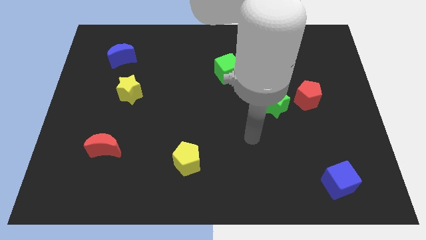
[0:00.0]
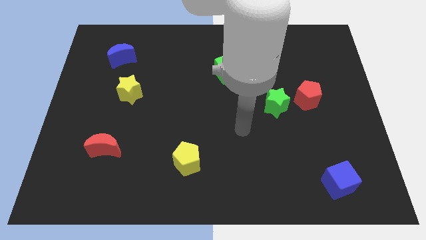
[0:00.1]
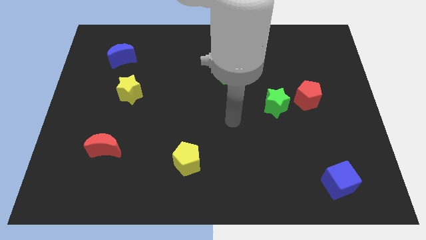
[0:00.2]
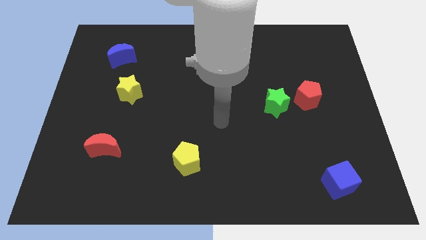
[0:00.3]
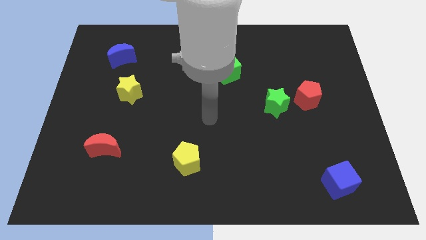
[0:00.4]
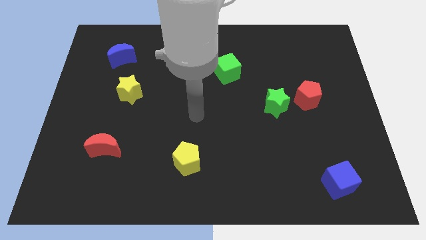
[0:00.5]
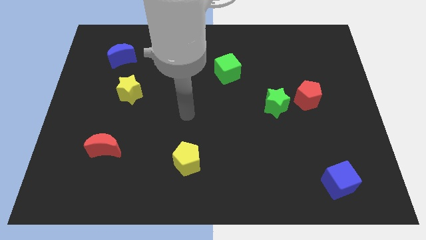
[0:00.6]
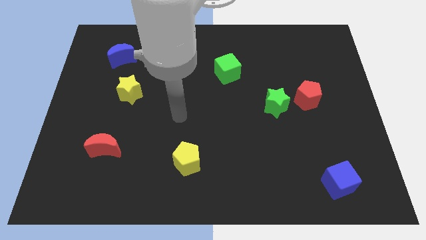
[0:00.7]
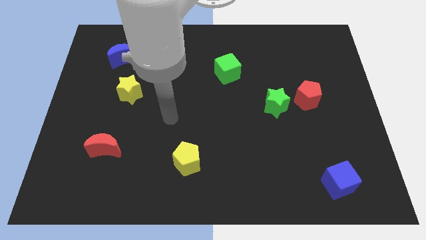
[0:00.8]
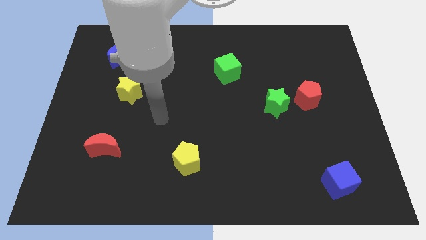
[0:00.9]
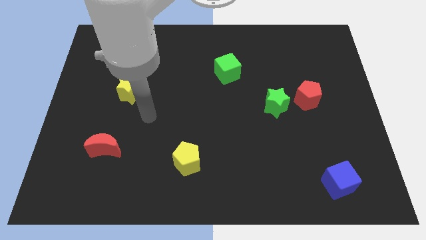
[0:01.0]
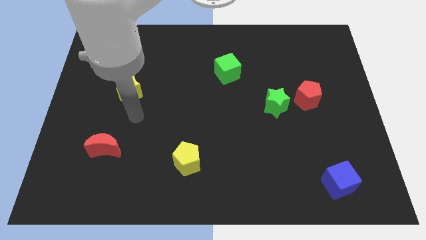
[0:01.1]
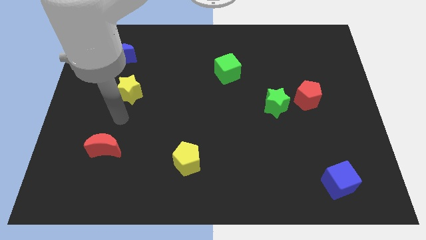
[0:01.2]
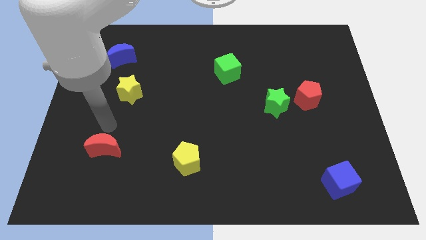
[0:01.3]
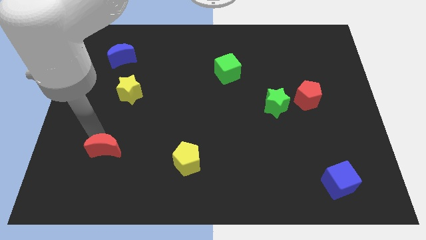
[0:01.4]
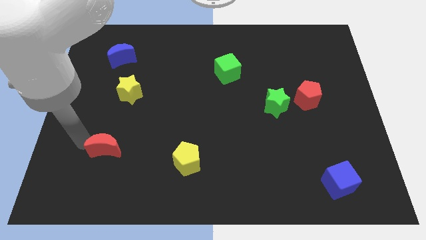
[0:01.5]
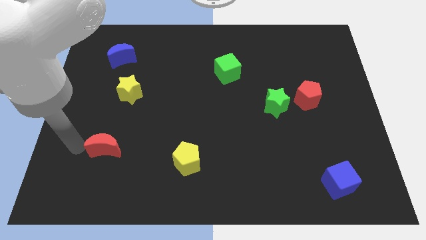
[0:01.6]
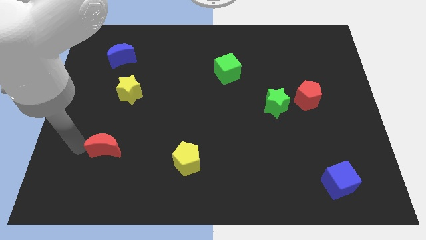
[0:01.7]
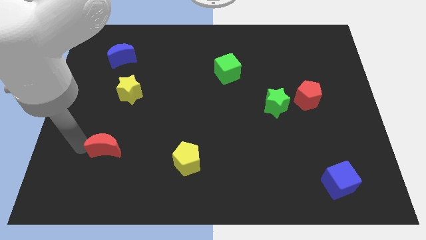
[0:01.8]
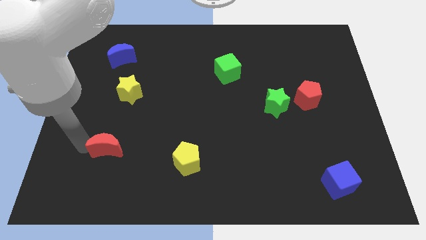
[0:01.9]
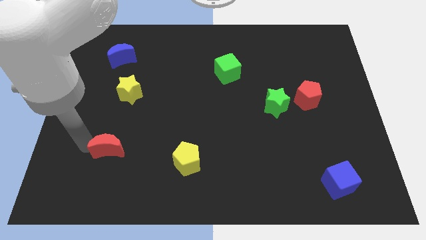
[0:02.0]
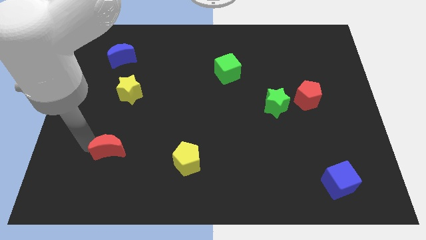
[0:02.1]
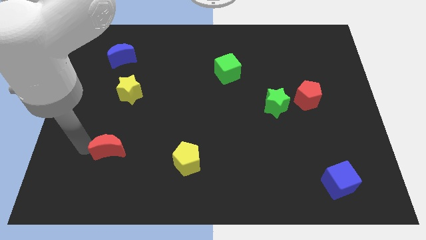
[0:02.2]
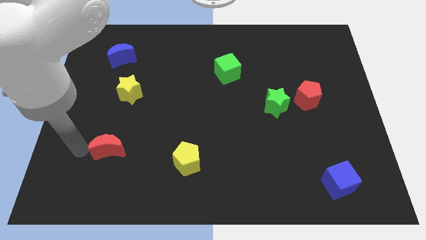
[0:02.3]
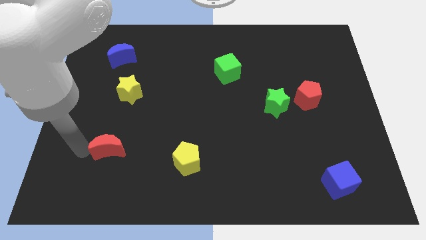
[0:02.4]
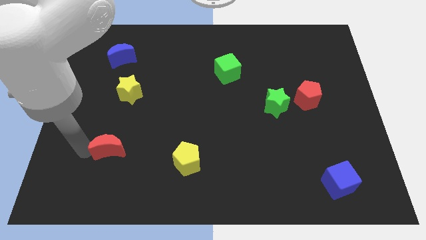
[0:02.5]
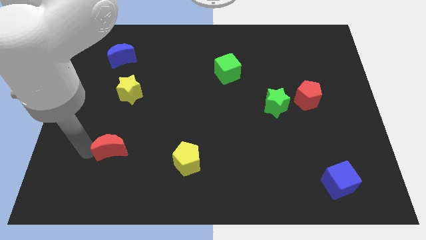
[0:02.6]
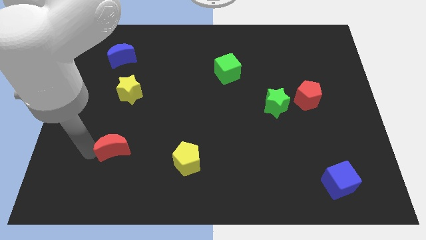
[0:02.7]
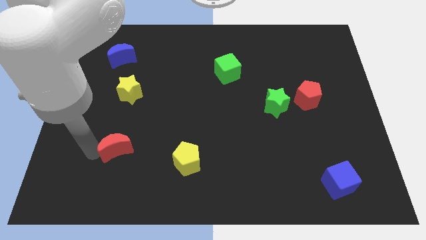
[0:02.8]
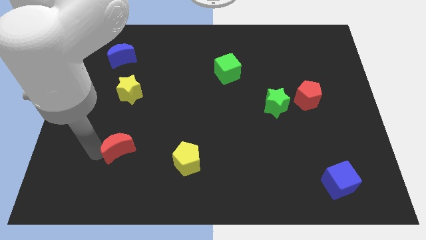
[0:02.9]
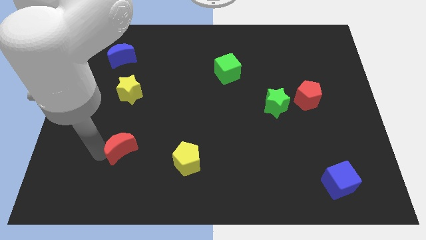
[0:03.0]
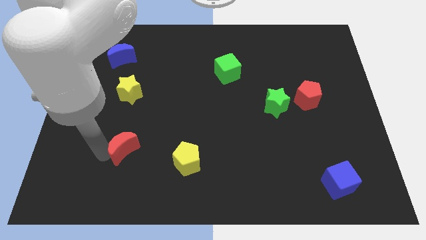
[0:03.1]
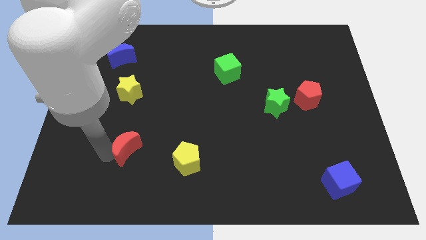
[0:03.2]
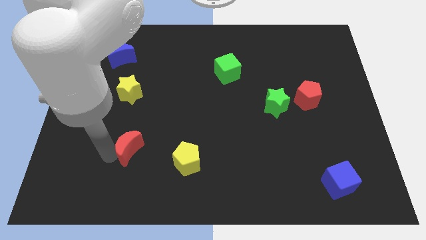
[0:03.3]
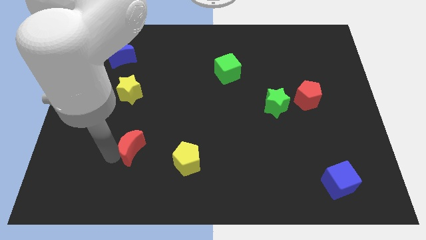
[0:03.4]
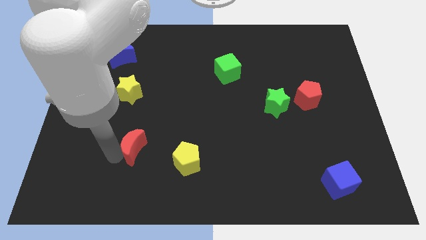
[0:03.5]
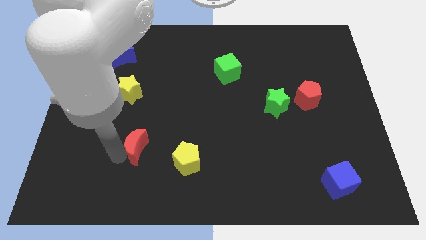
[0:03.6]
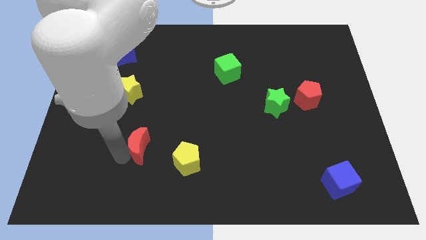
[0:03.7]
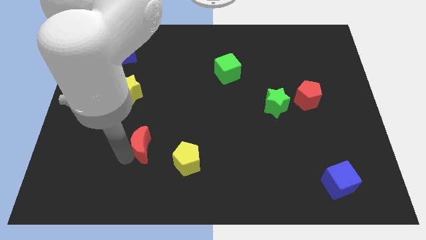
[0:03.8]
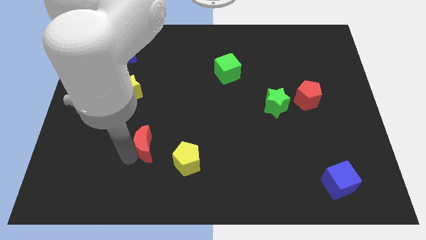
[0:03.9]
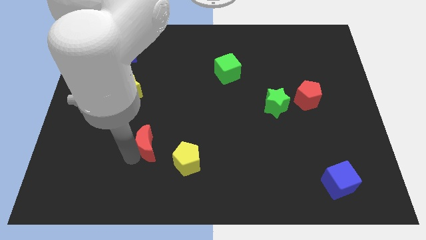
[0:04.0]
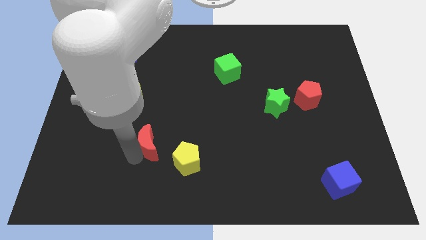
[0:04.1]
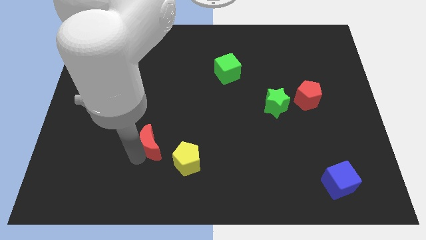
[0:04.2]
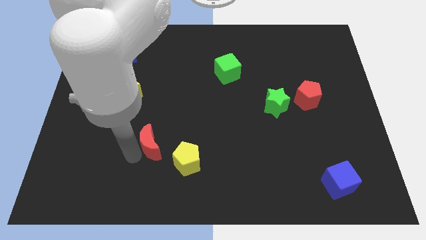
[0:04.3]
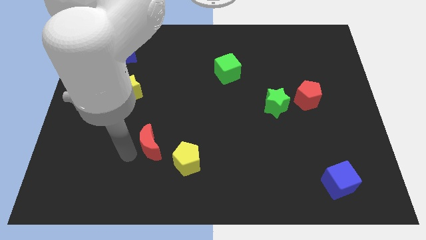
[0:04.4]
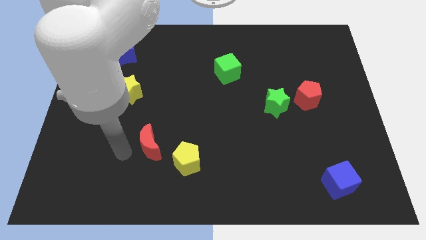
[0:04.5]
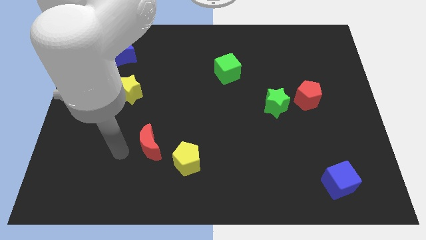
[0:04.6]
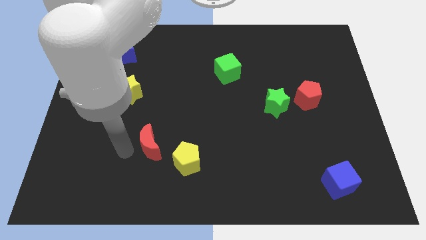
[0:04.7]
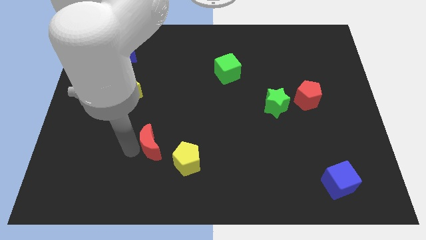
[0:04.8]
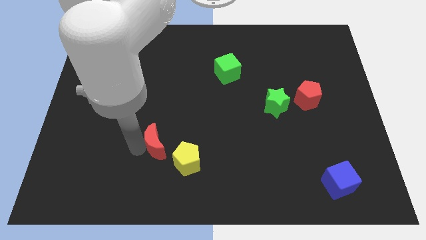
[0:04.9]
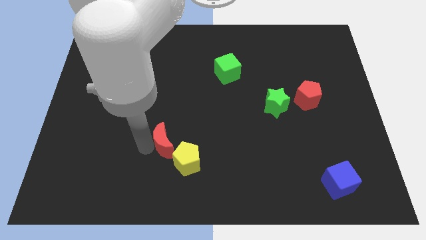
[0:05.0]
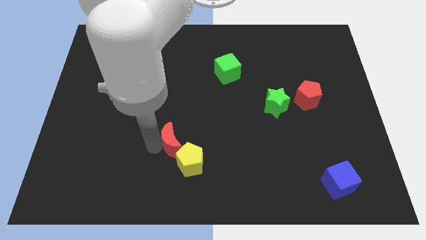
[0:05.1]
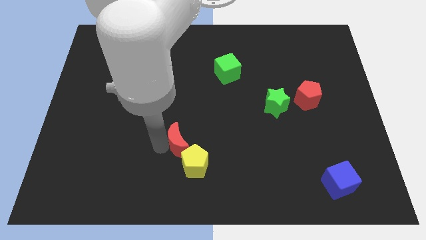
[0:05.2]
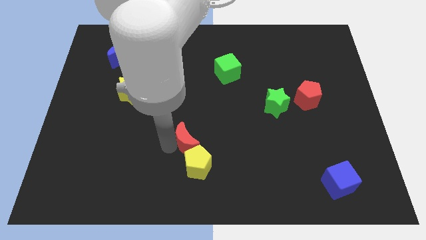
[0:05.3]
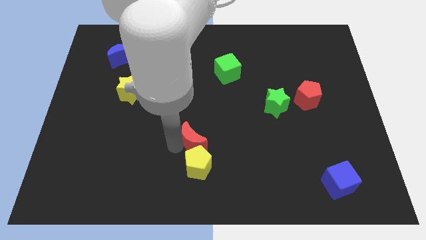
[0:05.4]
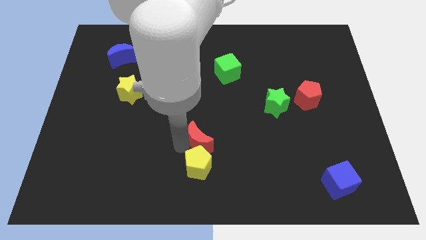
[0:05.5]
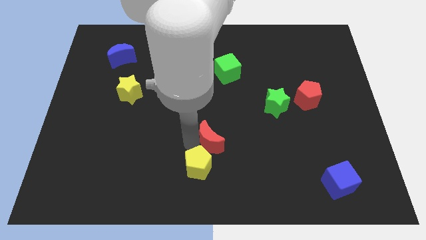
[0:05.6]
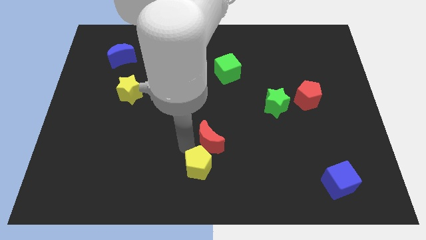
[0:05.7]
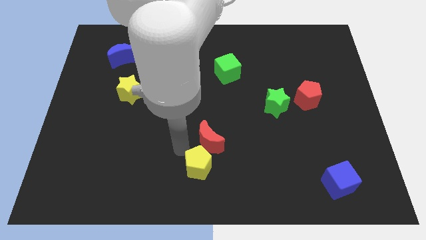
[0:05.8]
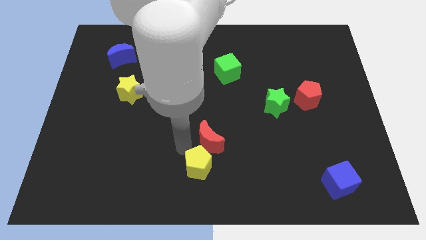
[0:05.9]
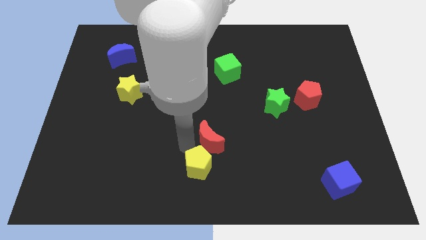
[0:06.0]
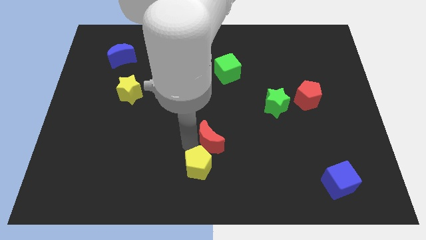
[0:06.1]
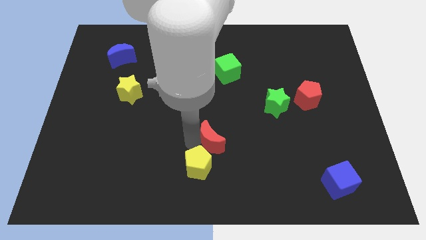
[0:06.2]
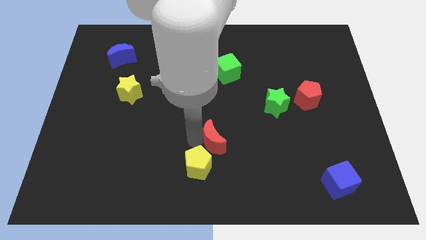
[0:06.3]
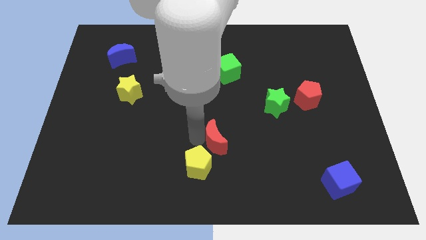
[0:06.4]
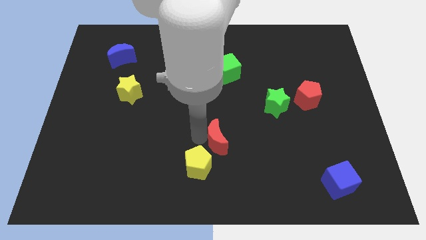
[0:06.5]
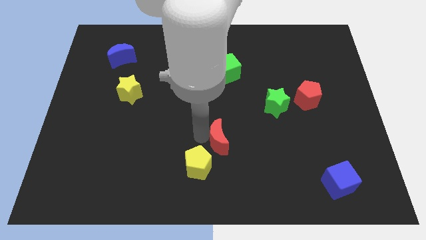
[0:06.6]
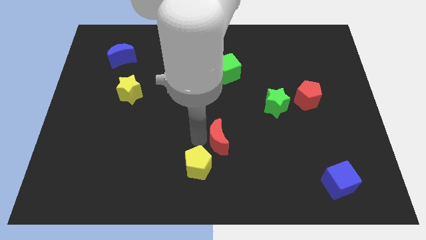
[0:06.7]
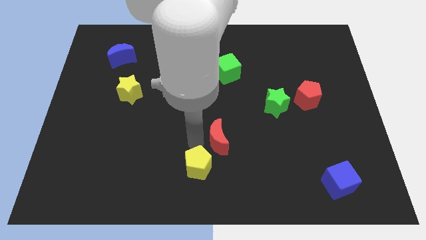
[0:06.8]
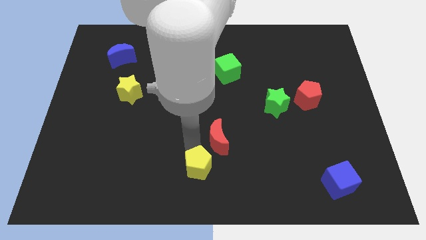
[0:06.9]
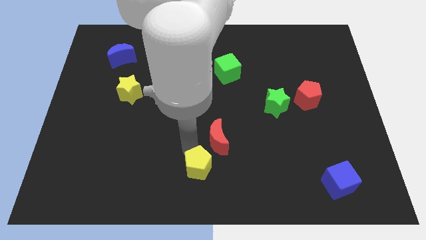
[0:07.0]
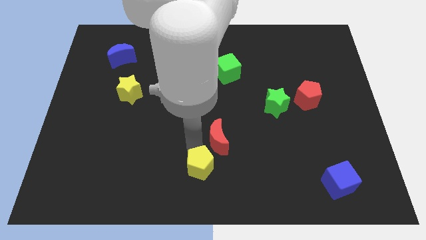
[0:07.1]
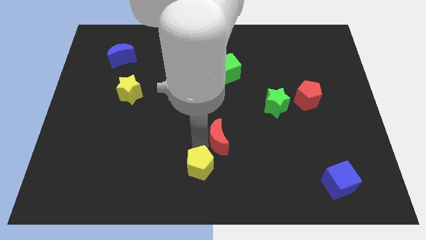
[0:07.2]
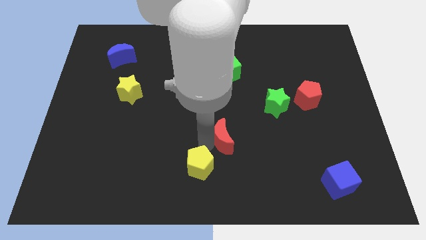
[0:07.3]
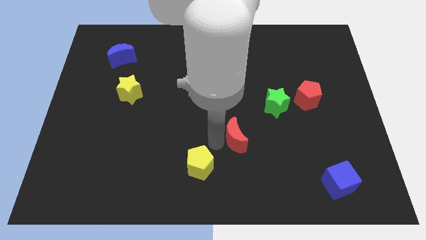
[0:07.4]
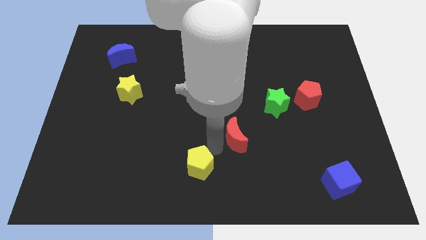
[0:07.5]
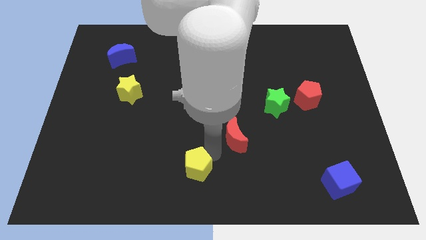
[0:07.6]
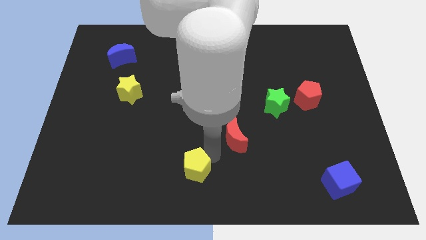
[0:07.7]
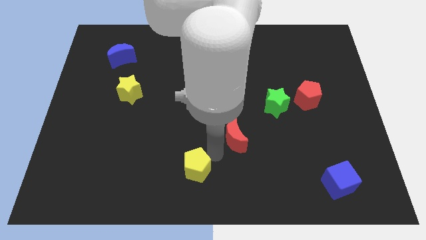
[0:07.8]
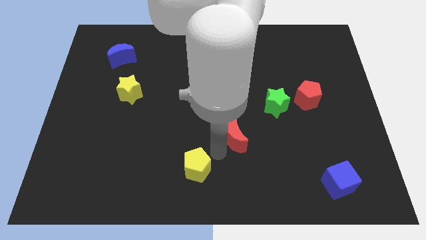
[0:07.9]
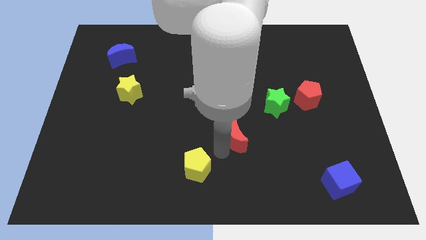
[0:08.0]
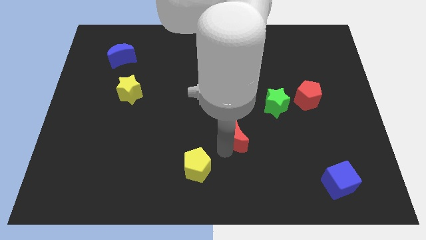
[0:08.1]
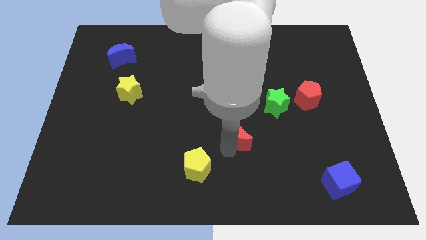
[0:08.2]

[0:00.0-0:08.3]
slide the red moon to the bottom left of the green star
